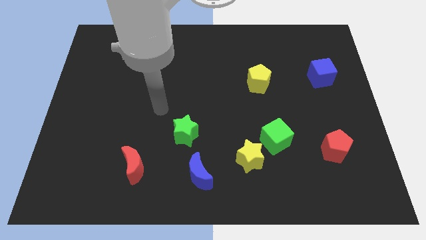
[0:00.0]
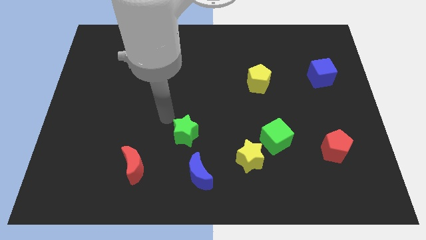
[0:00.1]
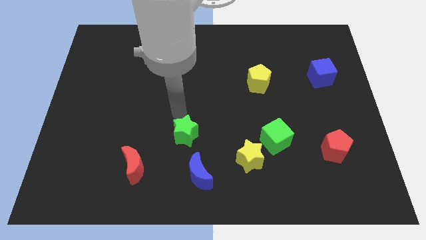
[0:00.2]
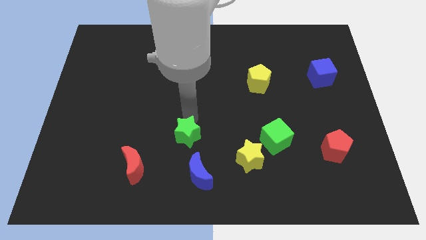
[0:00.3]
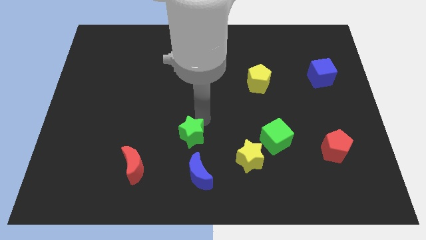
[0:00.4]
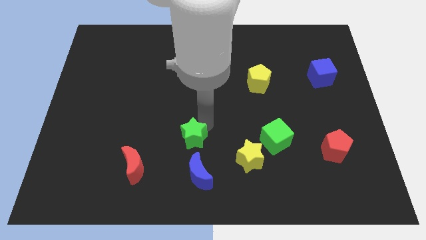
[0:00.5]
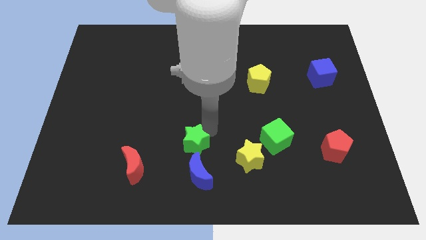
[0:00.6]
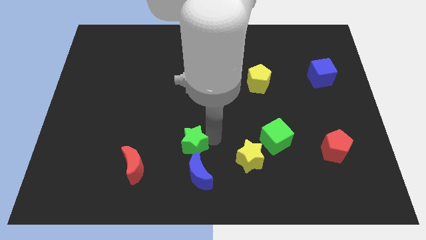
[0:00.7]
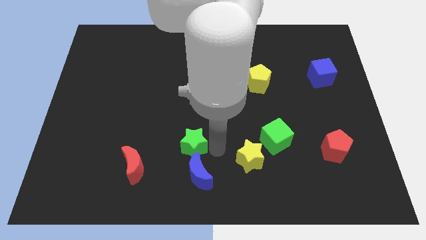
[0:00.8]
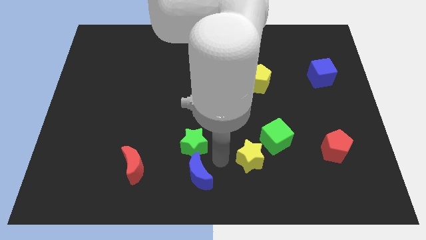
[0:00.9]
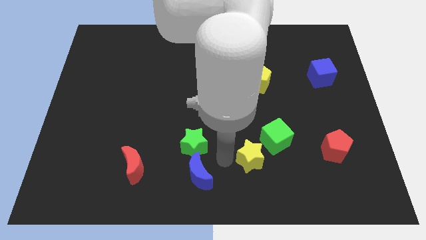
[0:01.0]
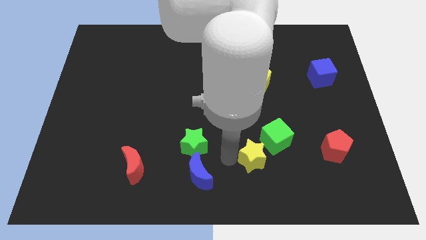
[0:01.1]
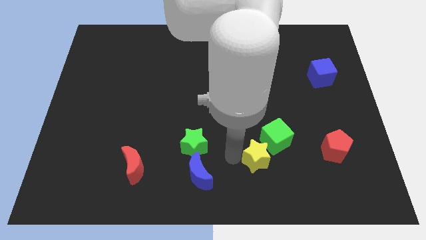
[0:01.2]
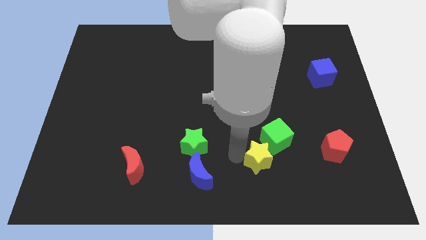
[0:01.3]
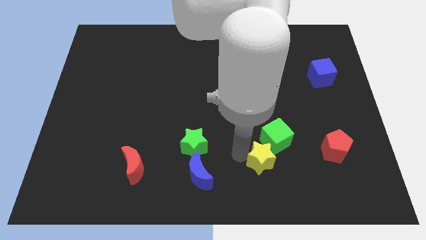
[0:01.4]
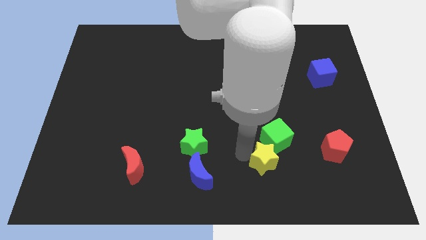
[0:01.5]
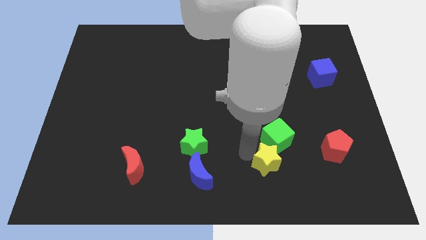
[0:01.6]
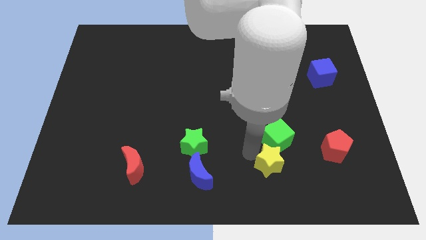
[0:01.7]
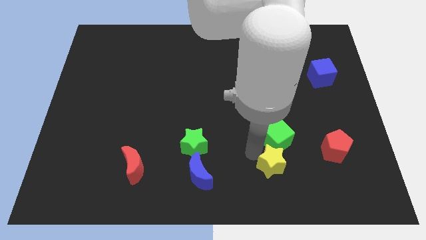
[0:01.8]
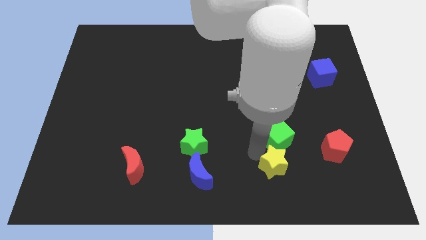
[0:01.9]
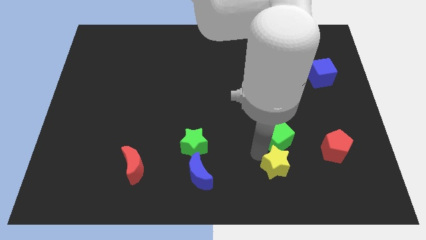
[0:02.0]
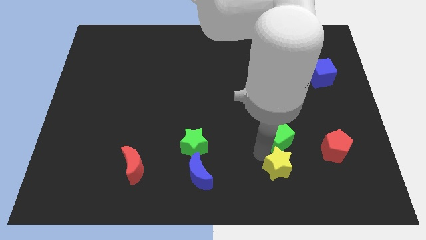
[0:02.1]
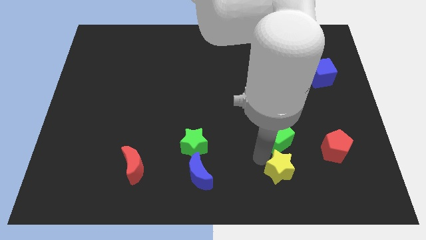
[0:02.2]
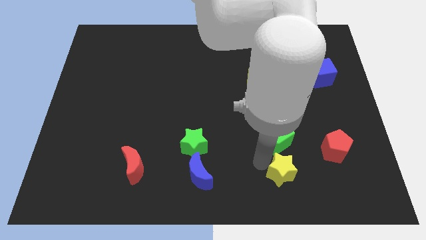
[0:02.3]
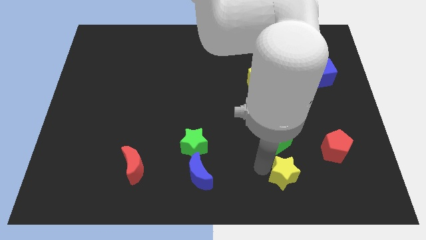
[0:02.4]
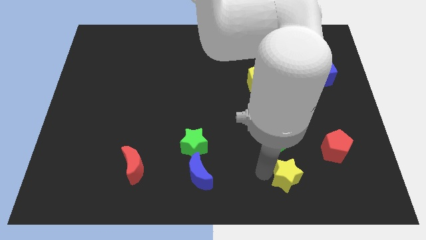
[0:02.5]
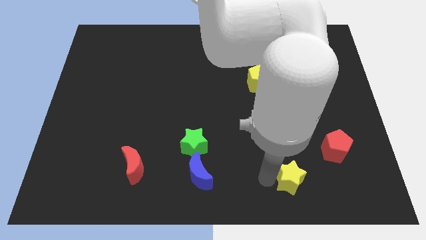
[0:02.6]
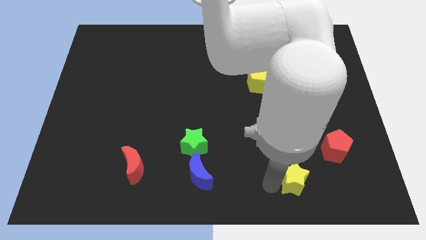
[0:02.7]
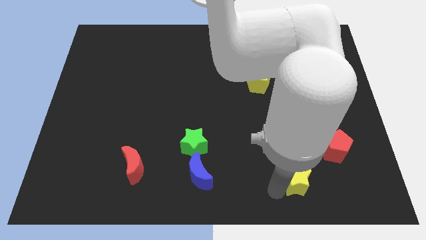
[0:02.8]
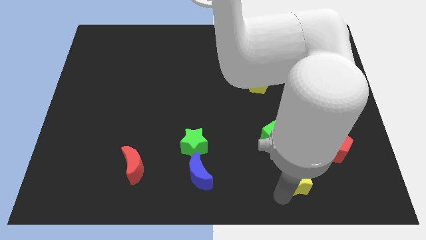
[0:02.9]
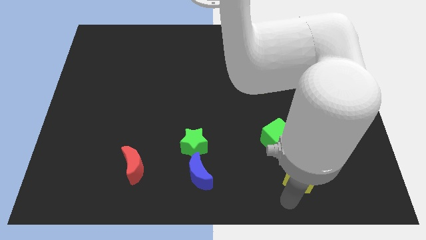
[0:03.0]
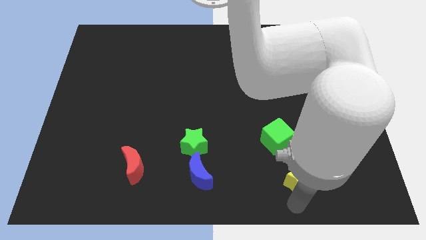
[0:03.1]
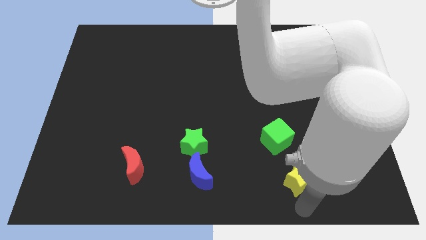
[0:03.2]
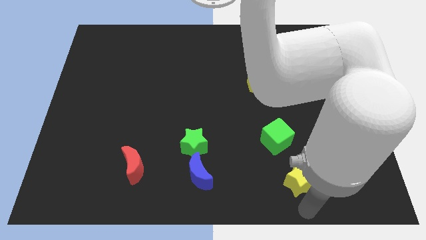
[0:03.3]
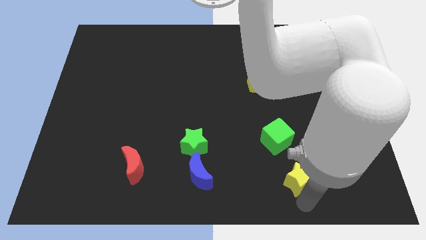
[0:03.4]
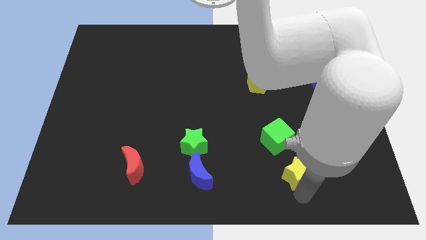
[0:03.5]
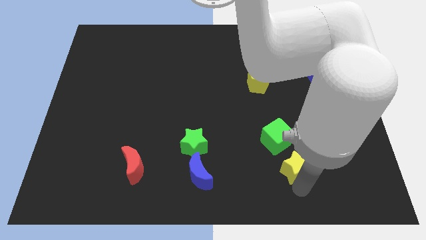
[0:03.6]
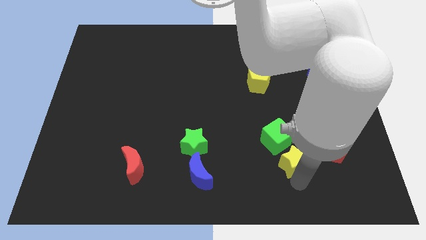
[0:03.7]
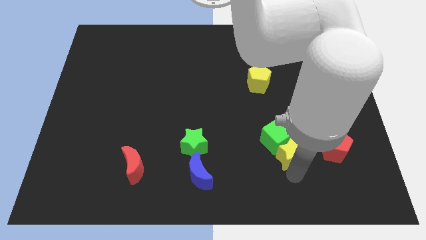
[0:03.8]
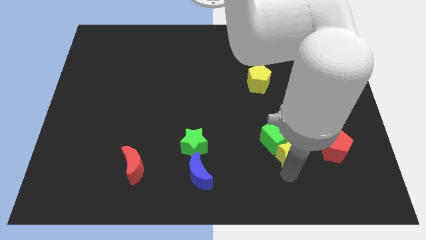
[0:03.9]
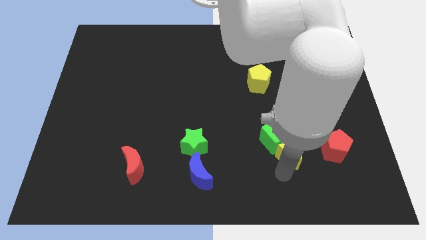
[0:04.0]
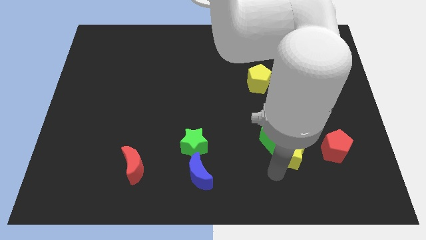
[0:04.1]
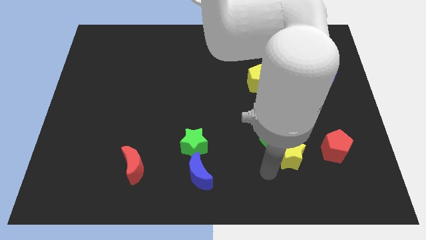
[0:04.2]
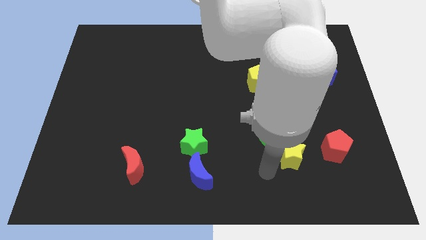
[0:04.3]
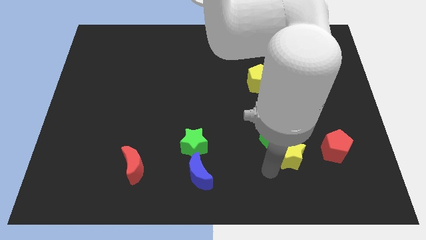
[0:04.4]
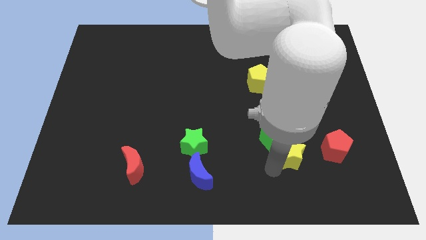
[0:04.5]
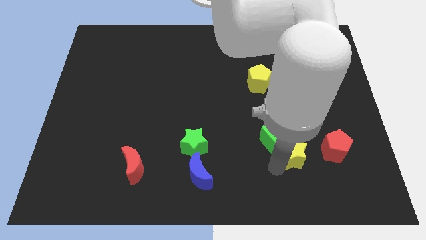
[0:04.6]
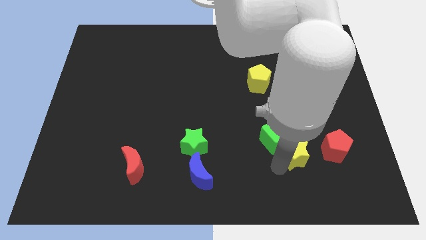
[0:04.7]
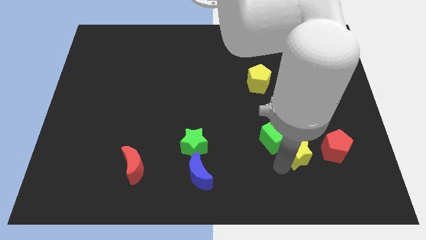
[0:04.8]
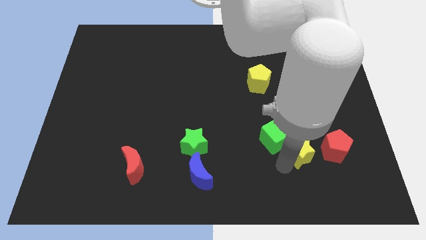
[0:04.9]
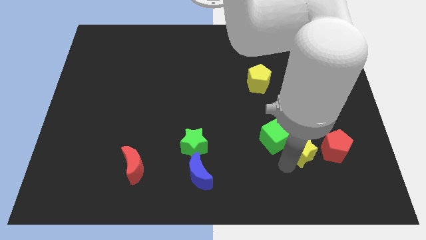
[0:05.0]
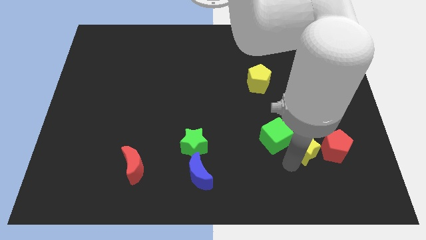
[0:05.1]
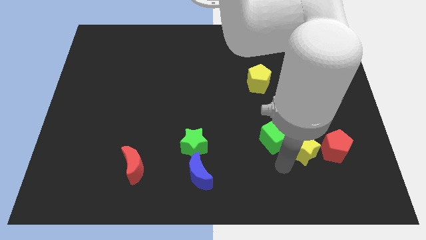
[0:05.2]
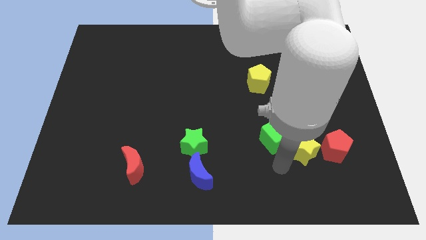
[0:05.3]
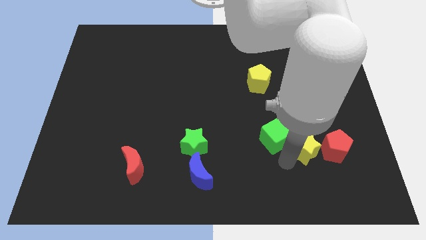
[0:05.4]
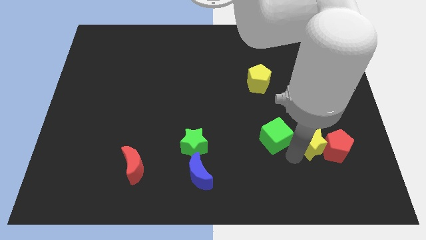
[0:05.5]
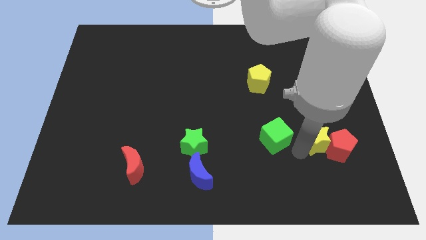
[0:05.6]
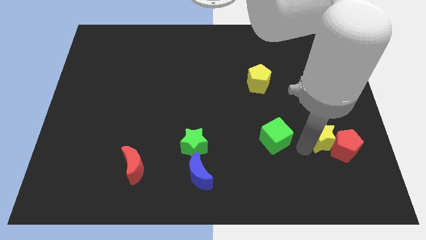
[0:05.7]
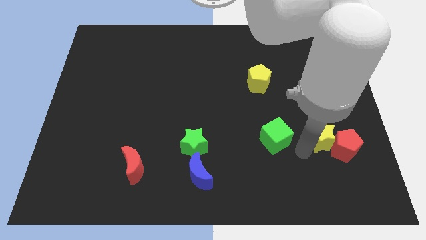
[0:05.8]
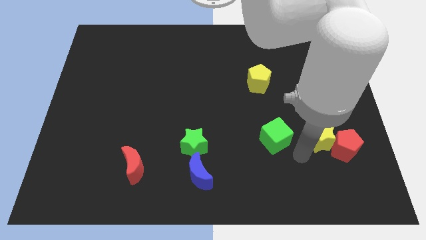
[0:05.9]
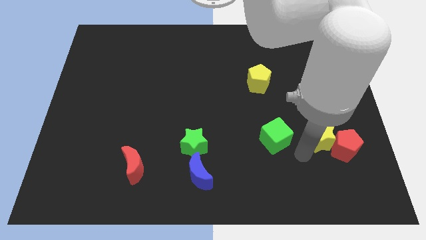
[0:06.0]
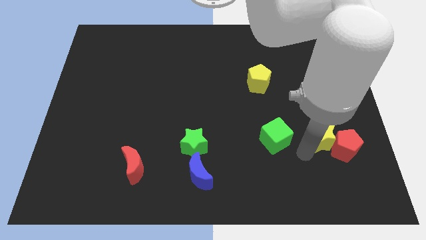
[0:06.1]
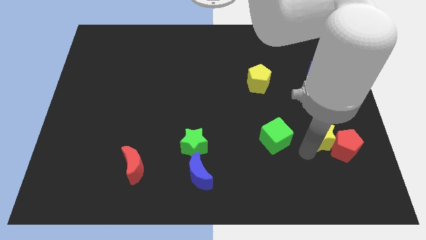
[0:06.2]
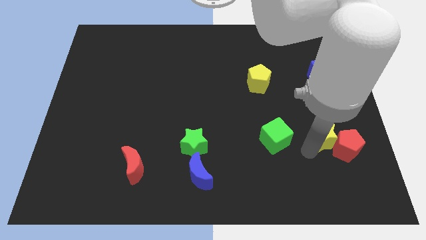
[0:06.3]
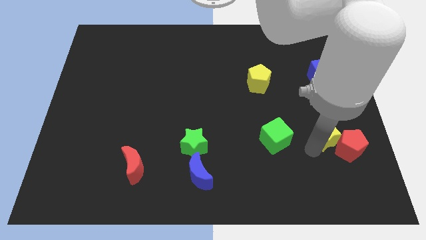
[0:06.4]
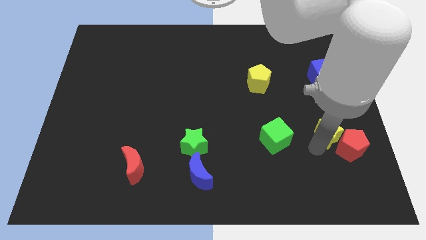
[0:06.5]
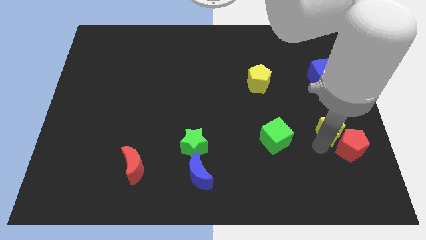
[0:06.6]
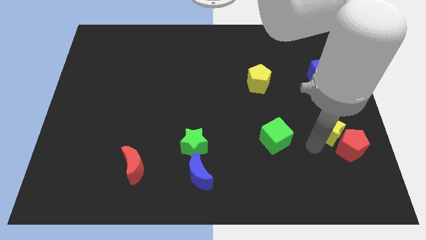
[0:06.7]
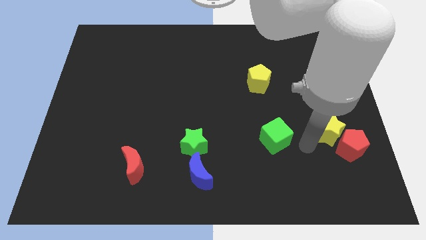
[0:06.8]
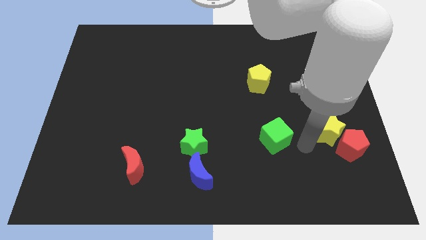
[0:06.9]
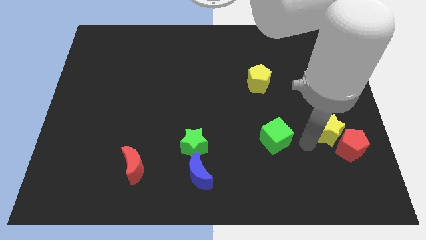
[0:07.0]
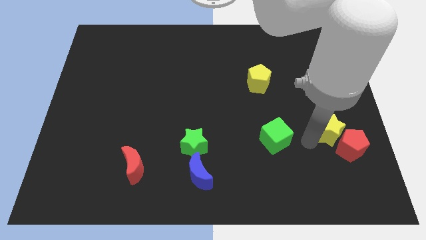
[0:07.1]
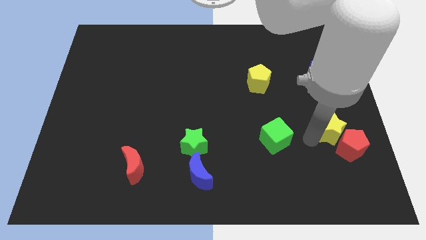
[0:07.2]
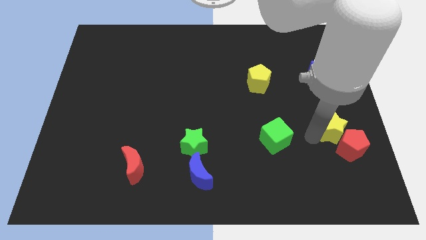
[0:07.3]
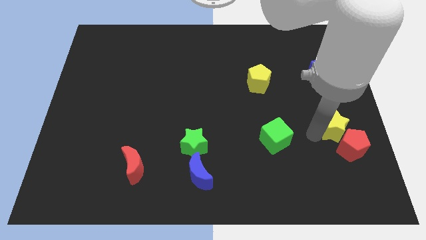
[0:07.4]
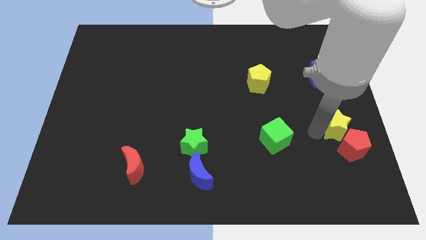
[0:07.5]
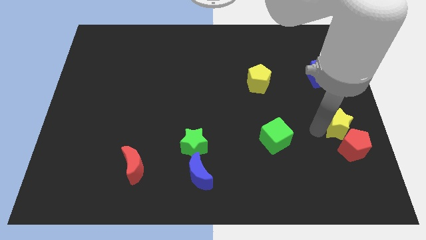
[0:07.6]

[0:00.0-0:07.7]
move the yellow star to the center right

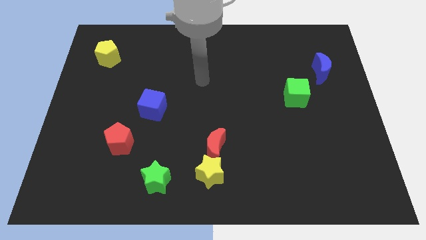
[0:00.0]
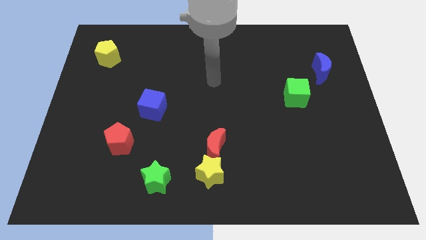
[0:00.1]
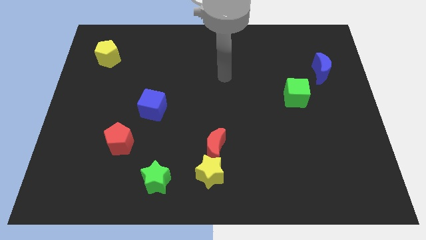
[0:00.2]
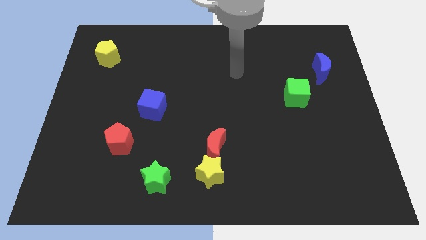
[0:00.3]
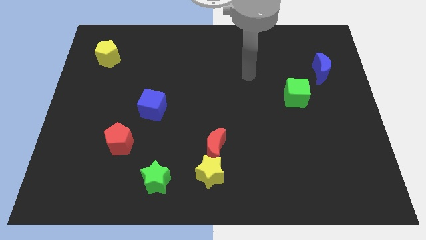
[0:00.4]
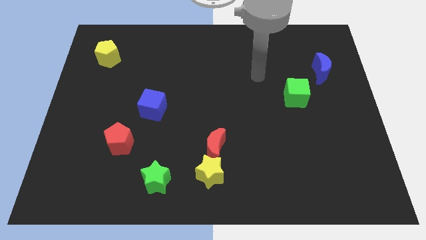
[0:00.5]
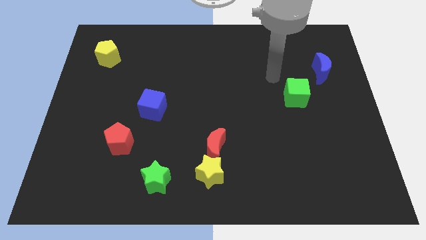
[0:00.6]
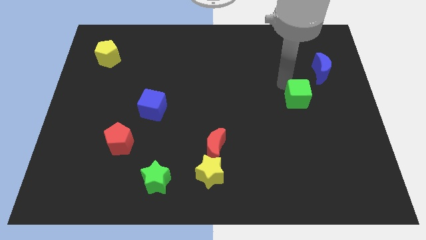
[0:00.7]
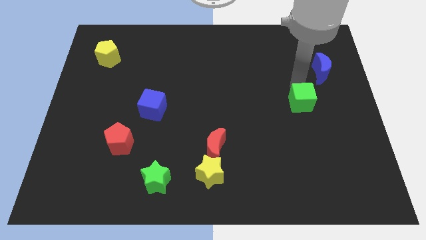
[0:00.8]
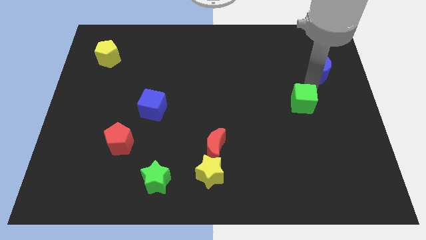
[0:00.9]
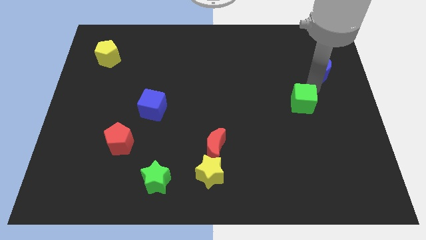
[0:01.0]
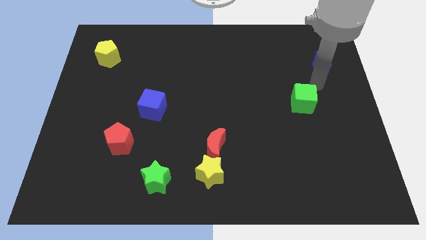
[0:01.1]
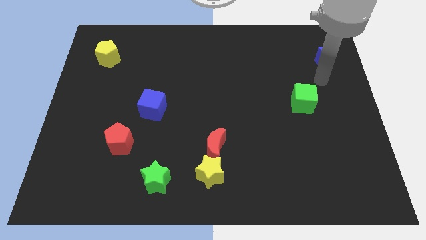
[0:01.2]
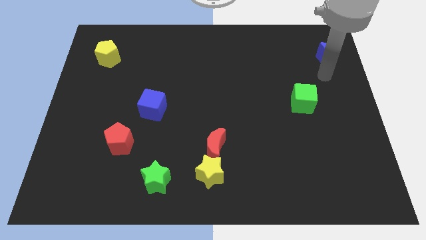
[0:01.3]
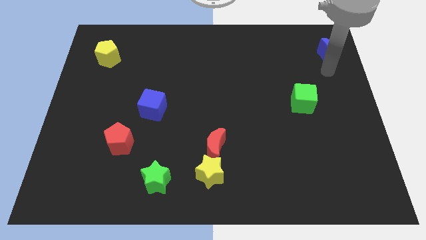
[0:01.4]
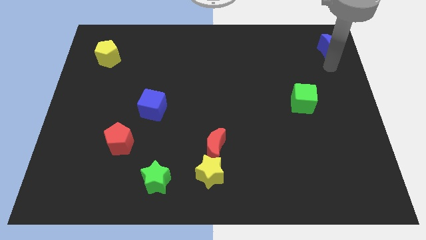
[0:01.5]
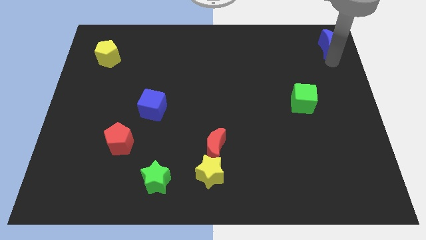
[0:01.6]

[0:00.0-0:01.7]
put the blue moon to the top right
